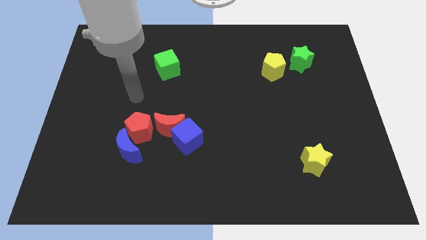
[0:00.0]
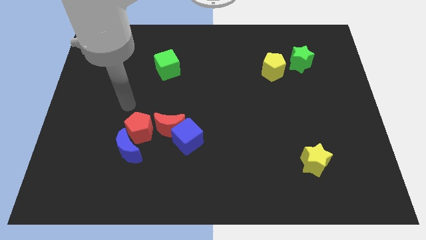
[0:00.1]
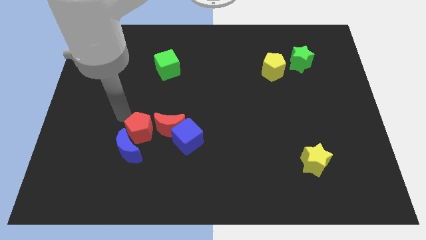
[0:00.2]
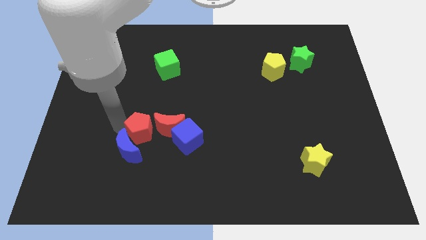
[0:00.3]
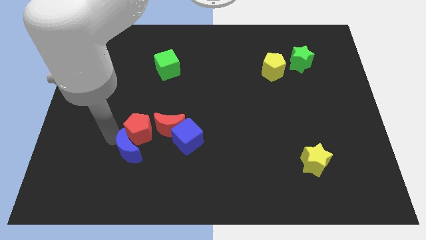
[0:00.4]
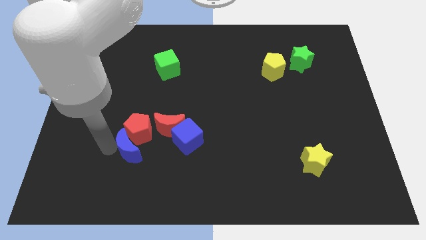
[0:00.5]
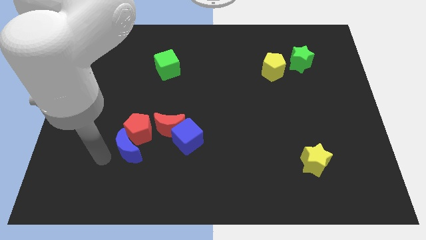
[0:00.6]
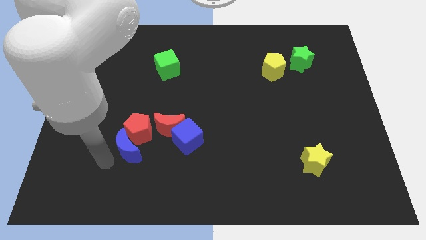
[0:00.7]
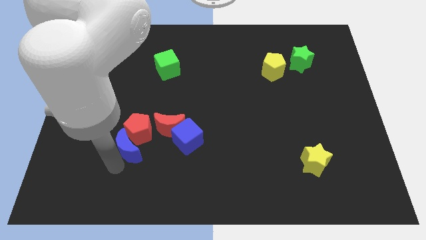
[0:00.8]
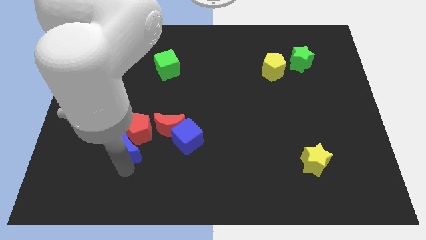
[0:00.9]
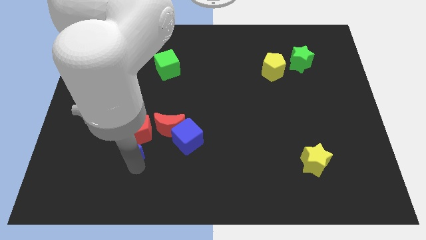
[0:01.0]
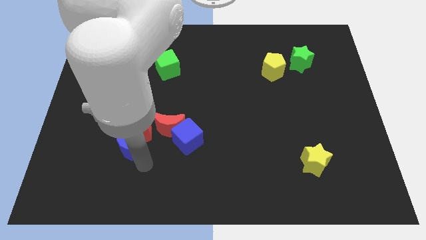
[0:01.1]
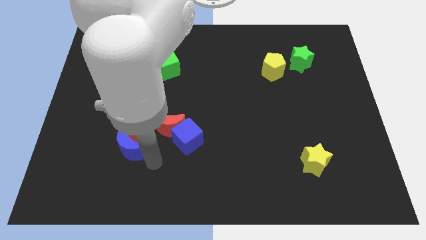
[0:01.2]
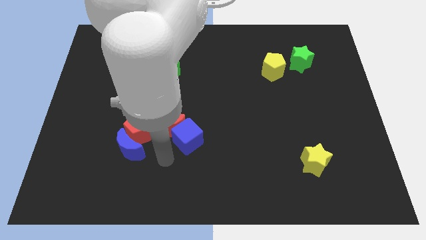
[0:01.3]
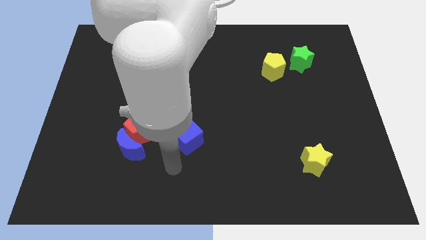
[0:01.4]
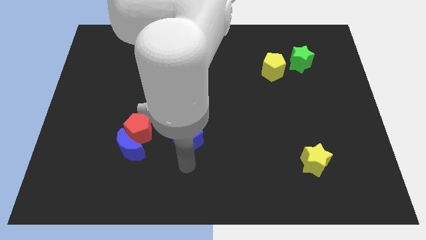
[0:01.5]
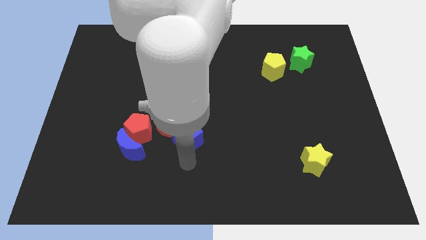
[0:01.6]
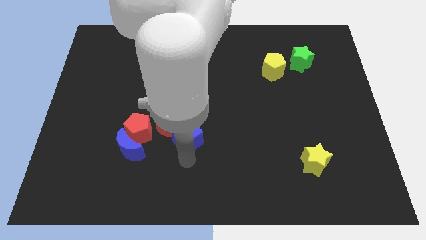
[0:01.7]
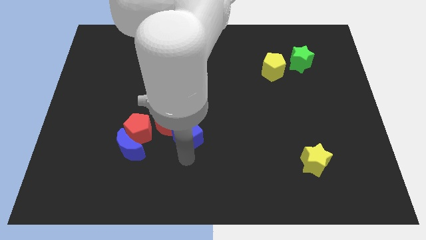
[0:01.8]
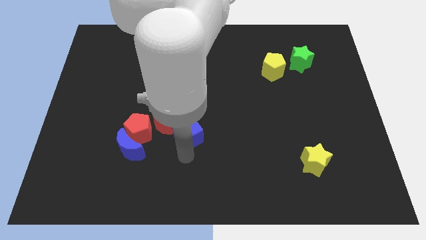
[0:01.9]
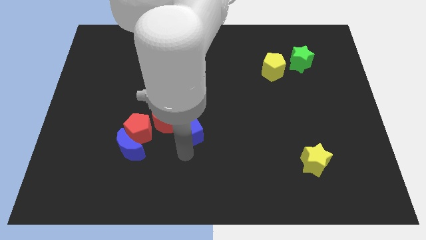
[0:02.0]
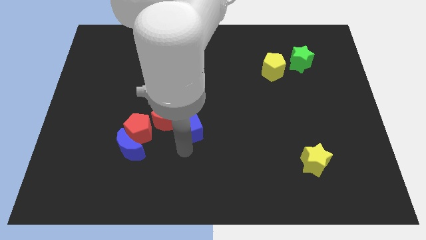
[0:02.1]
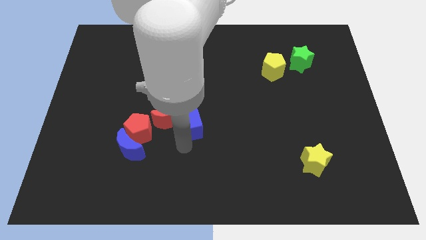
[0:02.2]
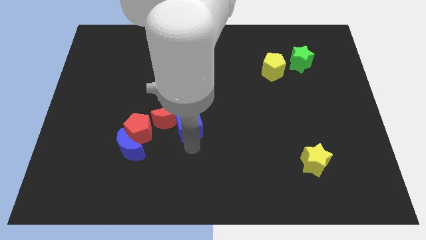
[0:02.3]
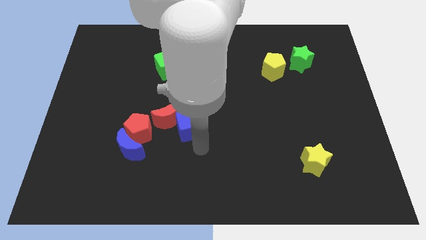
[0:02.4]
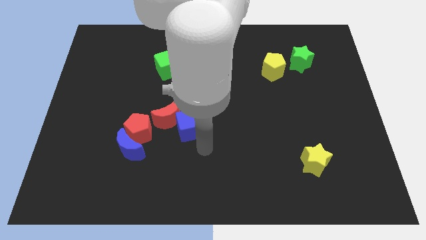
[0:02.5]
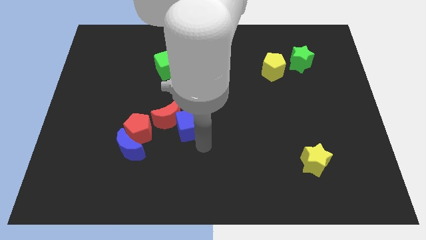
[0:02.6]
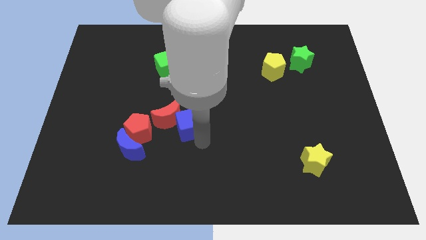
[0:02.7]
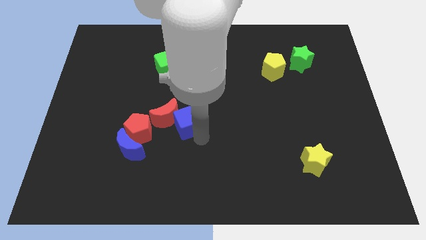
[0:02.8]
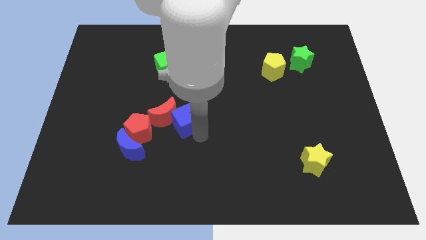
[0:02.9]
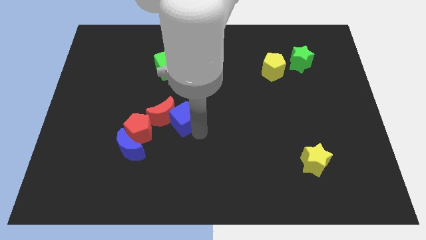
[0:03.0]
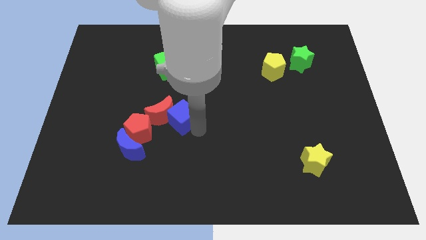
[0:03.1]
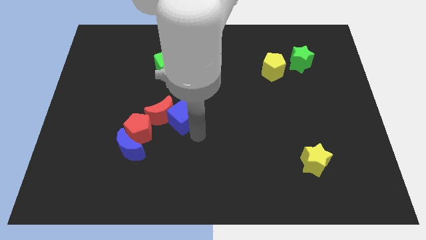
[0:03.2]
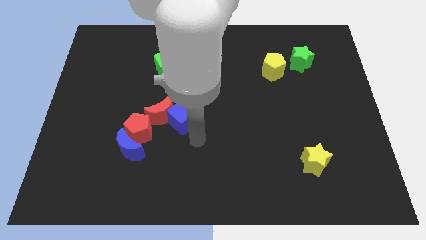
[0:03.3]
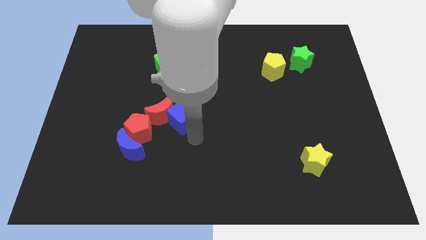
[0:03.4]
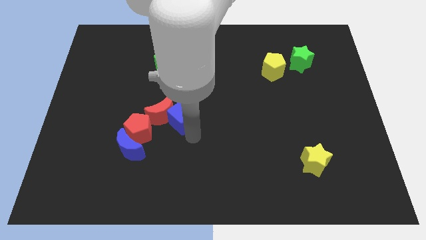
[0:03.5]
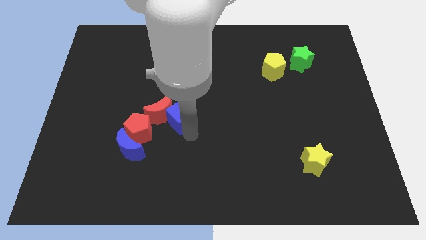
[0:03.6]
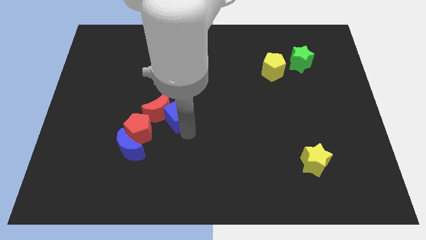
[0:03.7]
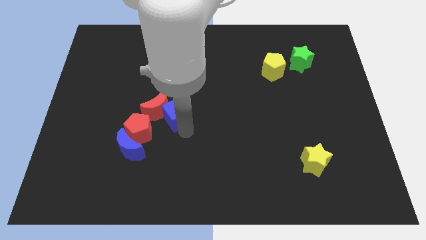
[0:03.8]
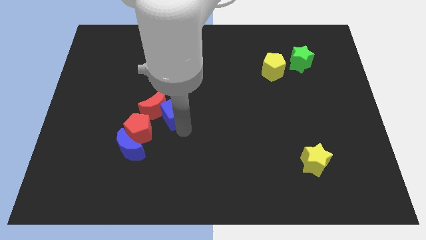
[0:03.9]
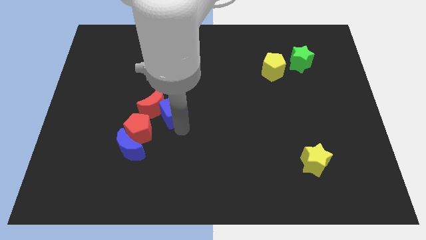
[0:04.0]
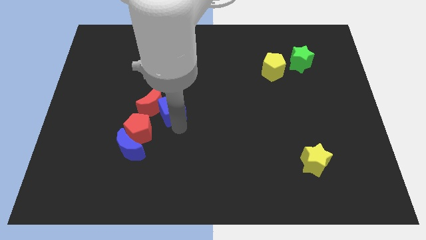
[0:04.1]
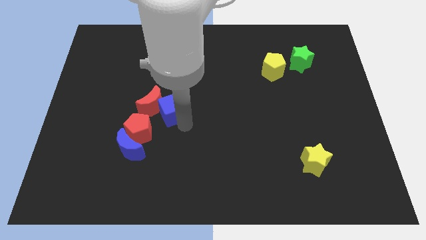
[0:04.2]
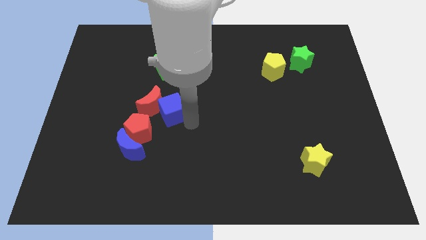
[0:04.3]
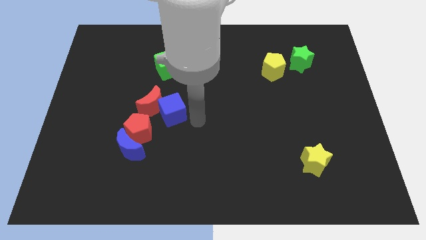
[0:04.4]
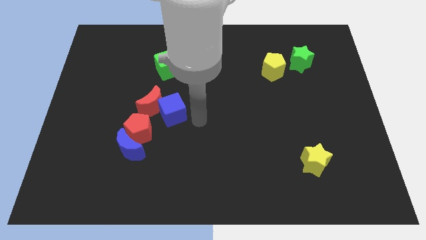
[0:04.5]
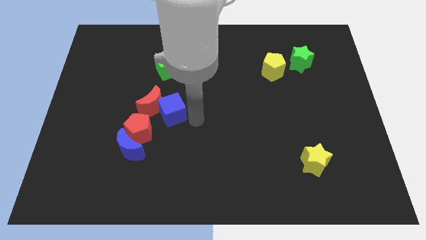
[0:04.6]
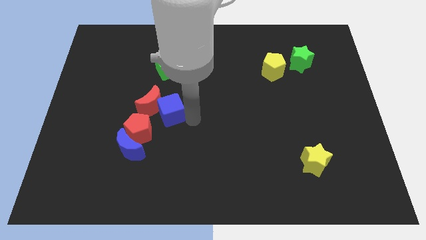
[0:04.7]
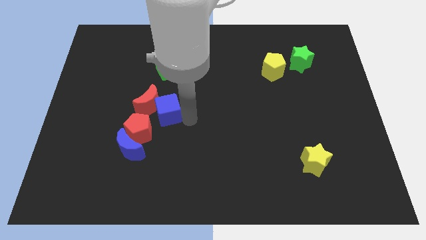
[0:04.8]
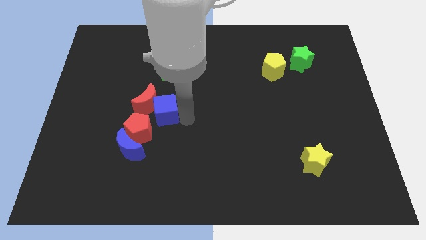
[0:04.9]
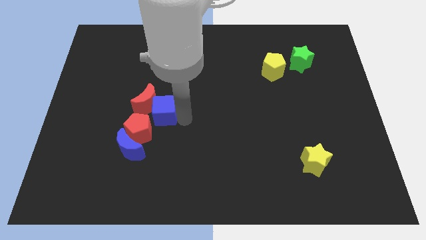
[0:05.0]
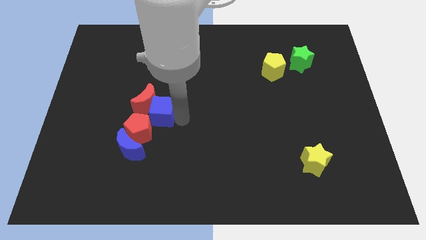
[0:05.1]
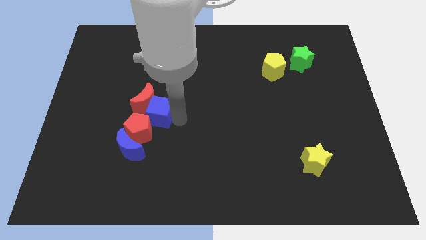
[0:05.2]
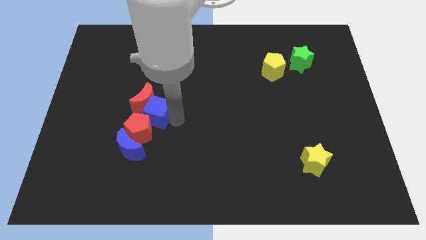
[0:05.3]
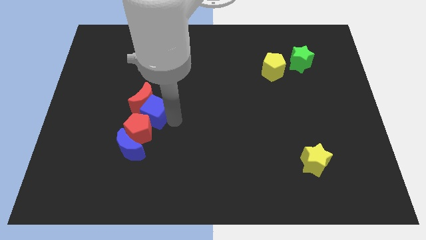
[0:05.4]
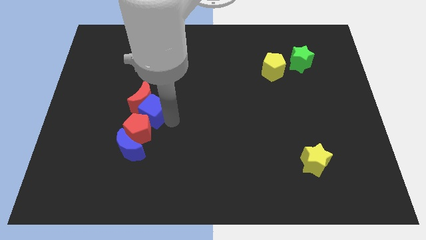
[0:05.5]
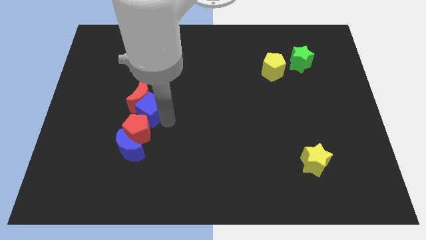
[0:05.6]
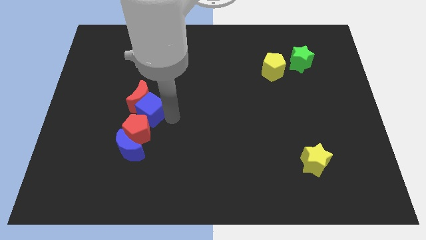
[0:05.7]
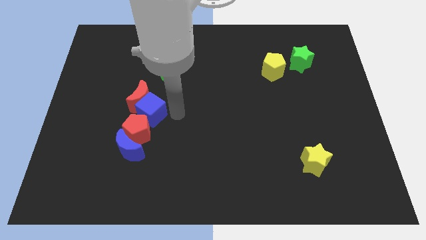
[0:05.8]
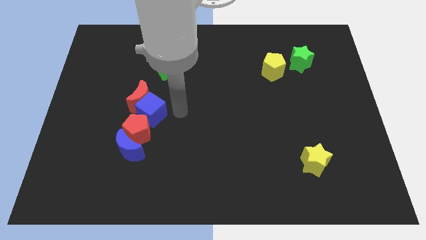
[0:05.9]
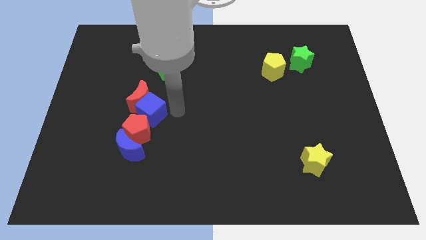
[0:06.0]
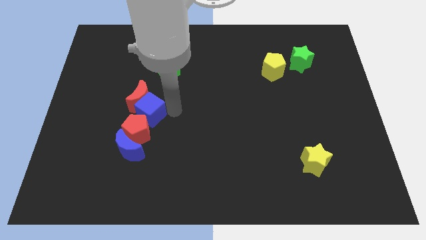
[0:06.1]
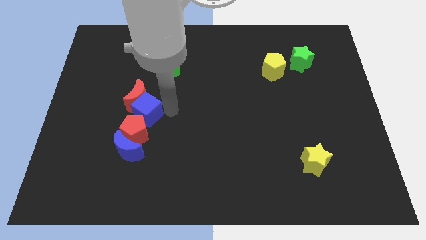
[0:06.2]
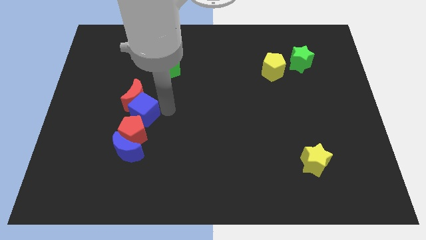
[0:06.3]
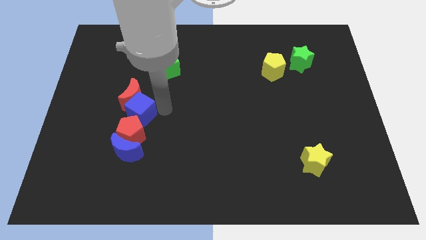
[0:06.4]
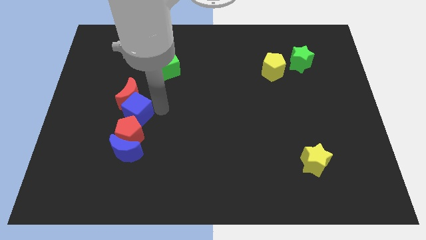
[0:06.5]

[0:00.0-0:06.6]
push the blue cube to the top left of the red pentagon
